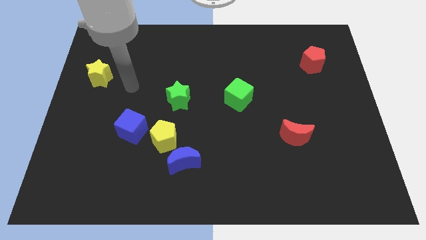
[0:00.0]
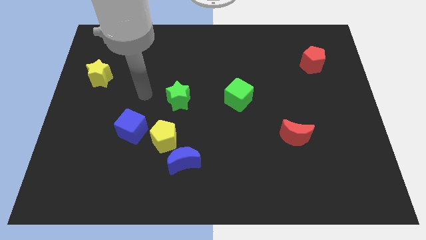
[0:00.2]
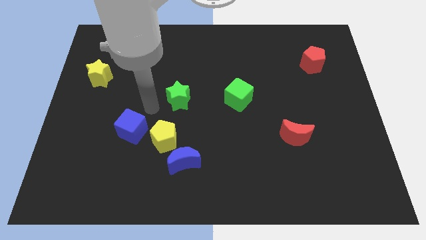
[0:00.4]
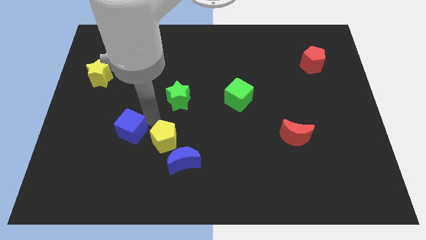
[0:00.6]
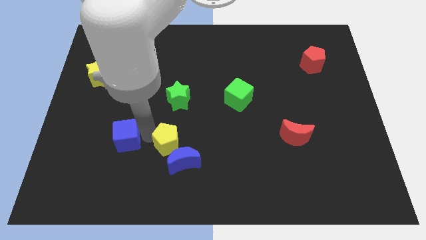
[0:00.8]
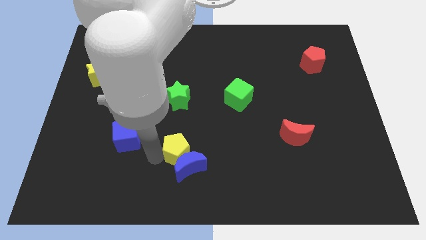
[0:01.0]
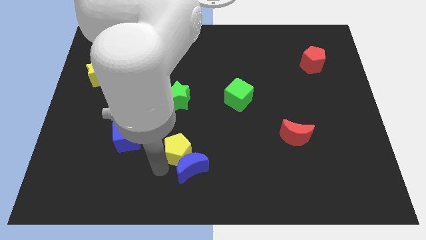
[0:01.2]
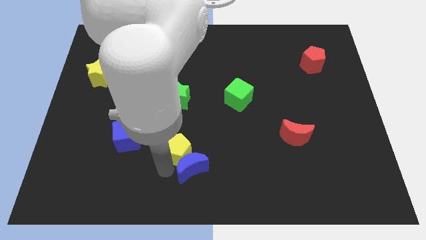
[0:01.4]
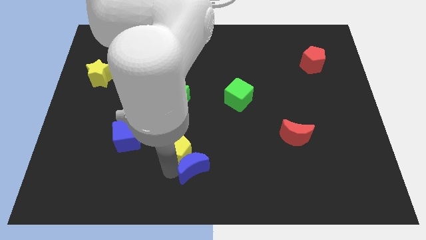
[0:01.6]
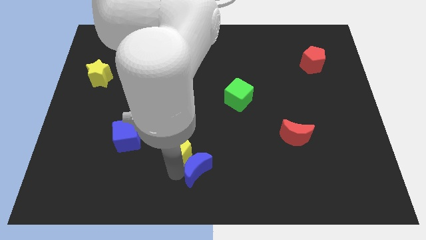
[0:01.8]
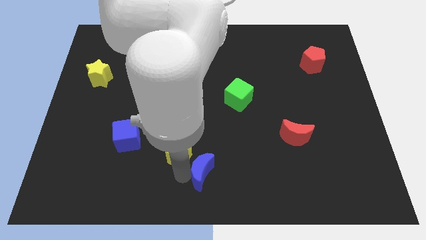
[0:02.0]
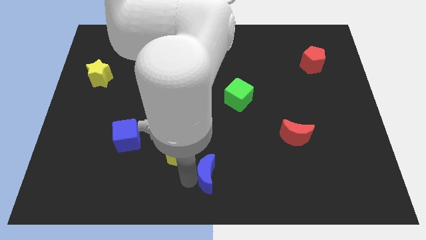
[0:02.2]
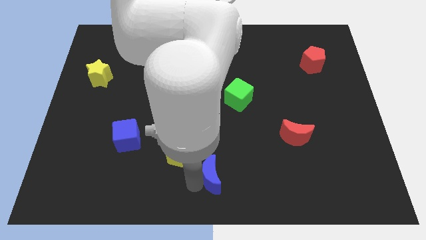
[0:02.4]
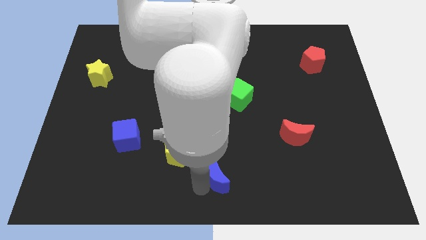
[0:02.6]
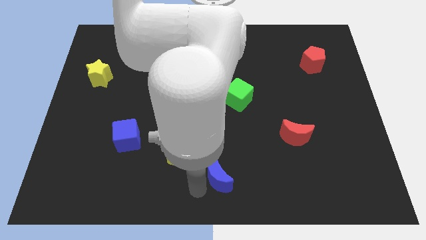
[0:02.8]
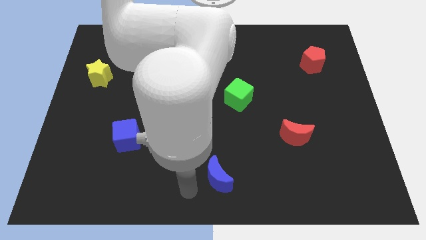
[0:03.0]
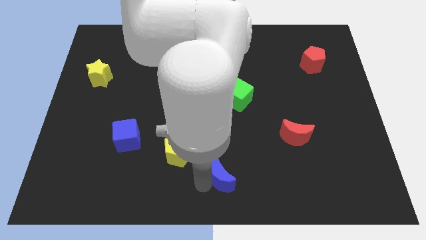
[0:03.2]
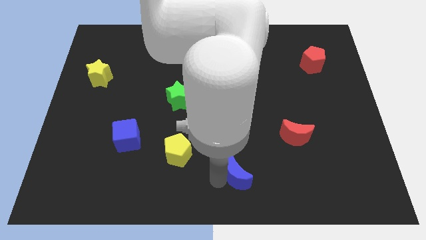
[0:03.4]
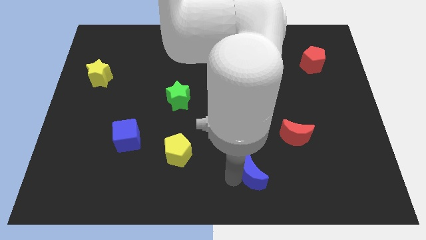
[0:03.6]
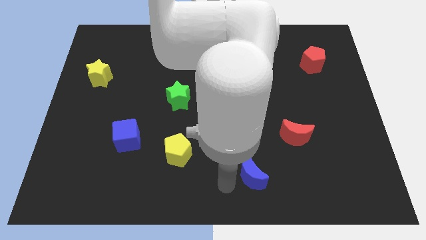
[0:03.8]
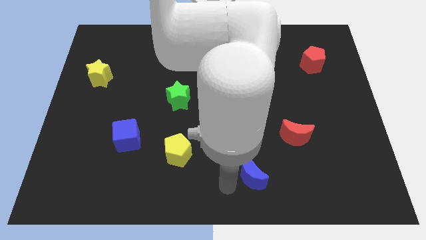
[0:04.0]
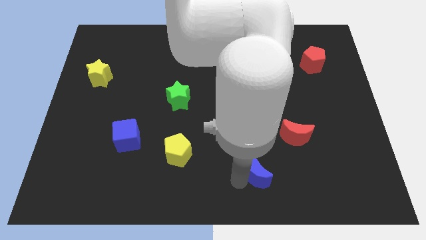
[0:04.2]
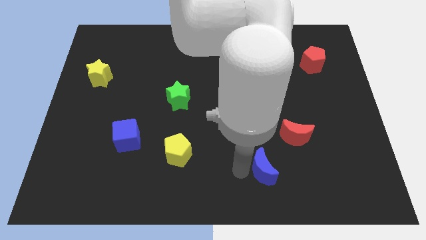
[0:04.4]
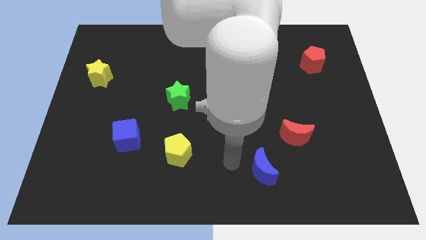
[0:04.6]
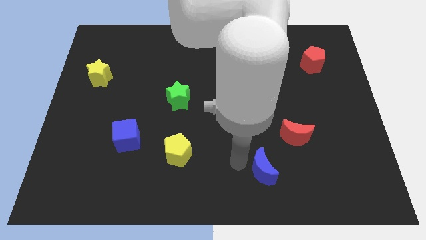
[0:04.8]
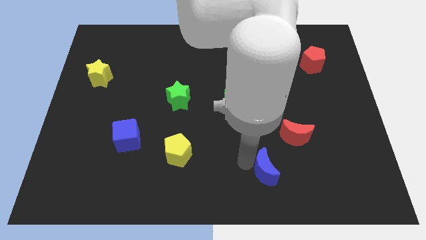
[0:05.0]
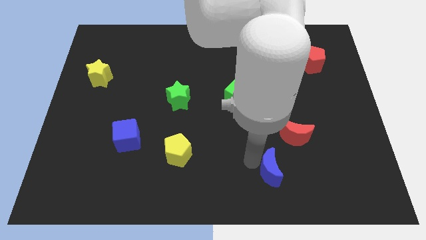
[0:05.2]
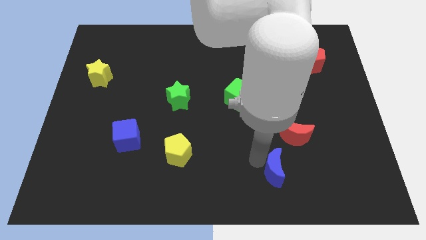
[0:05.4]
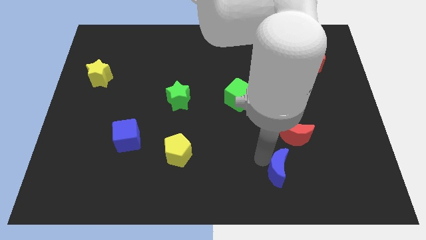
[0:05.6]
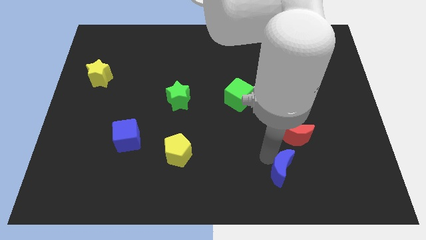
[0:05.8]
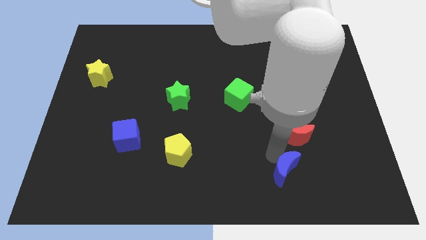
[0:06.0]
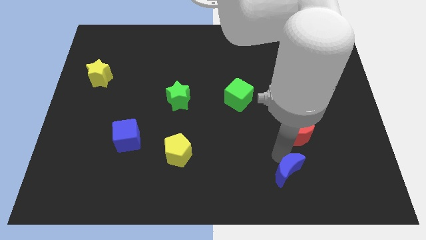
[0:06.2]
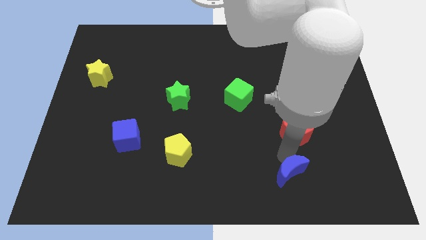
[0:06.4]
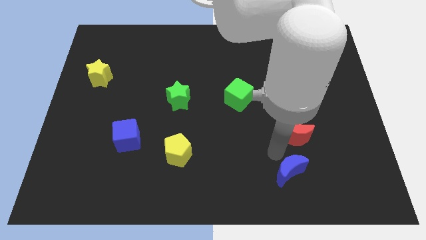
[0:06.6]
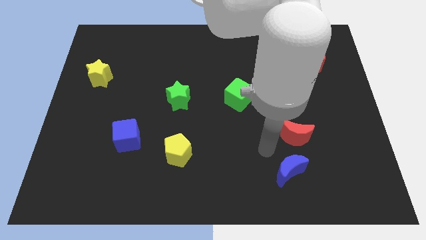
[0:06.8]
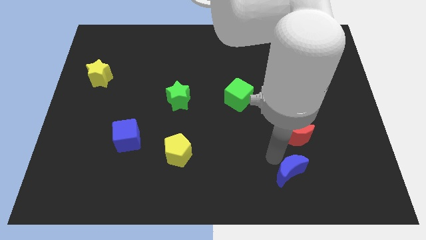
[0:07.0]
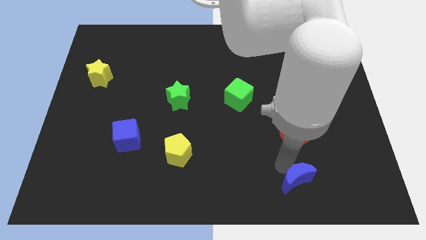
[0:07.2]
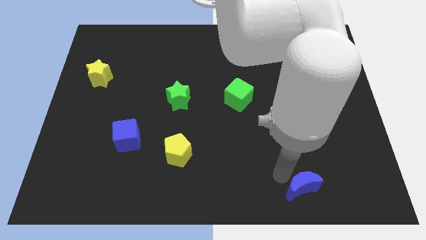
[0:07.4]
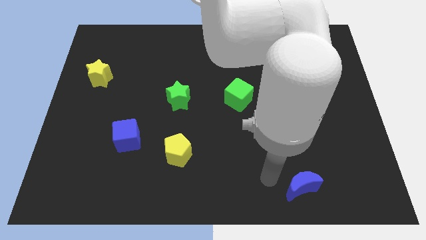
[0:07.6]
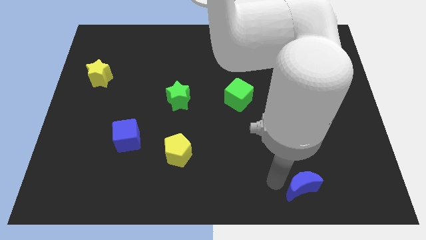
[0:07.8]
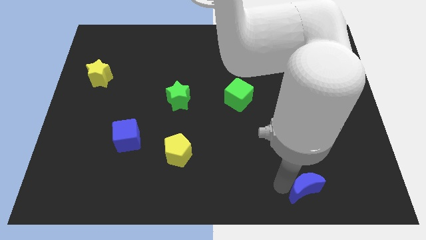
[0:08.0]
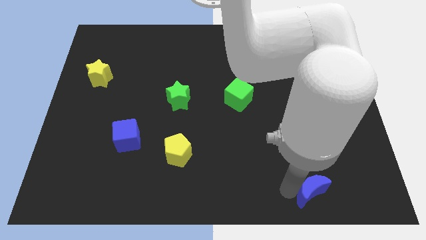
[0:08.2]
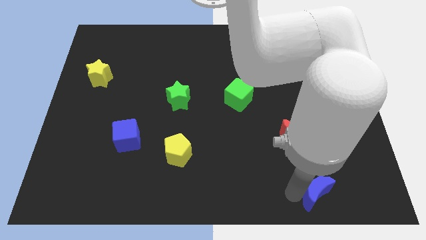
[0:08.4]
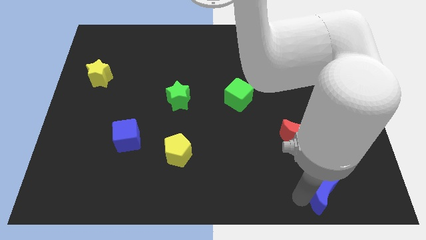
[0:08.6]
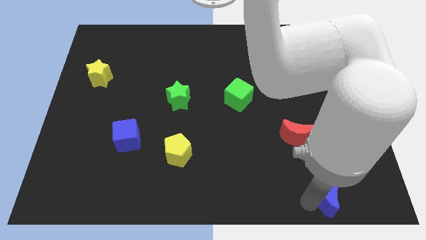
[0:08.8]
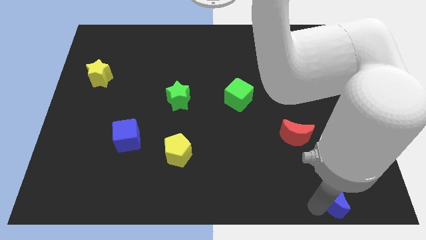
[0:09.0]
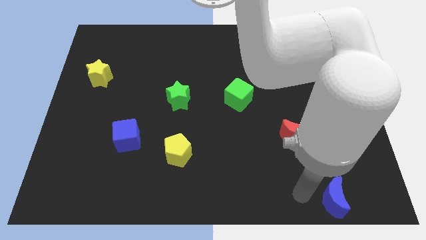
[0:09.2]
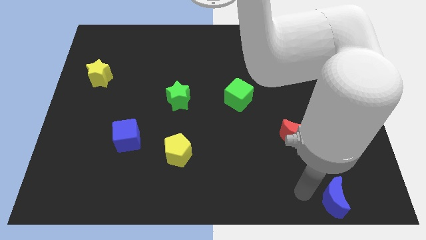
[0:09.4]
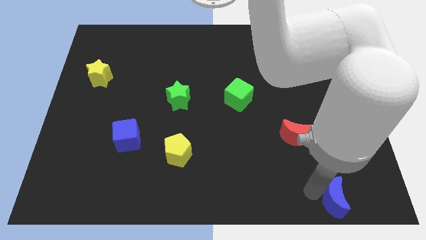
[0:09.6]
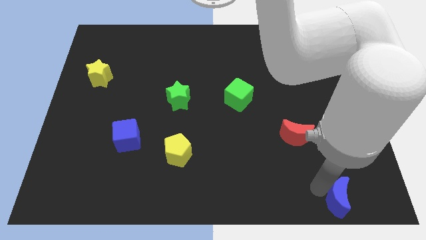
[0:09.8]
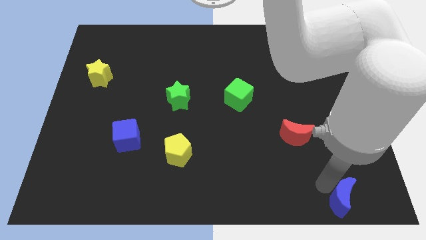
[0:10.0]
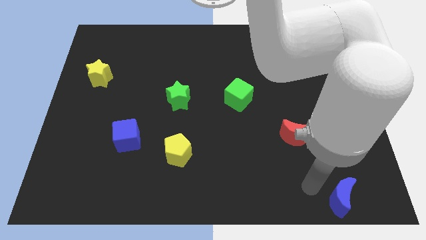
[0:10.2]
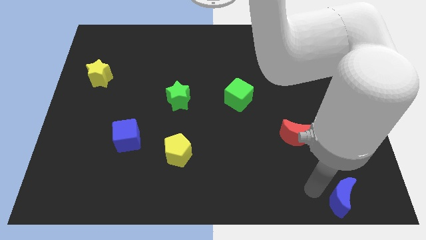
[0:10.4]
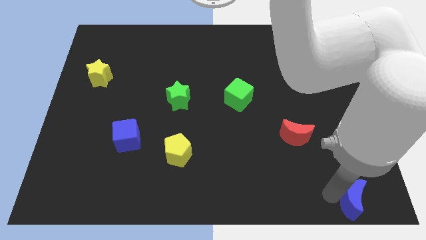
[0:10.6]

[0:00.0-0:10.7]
move the blue moon to the bottom right corner

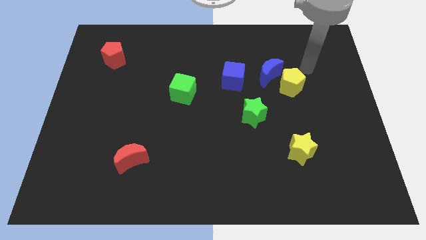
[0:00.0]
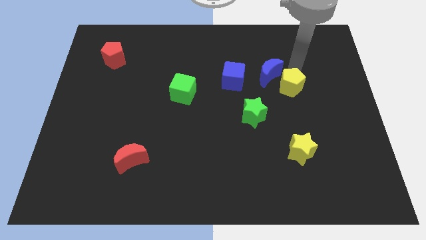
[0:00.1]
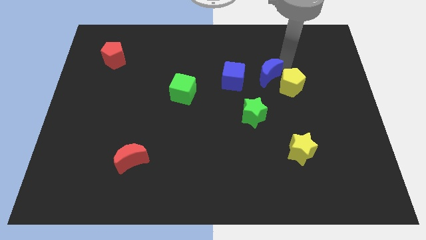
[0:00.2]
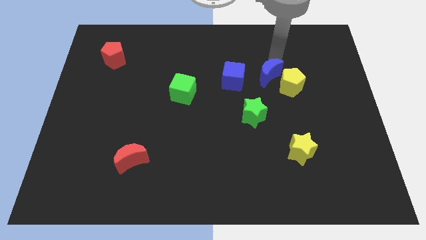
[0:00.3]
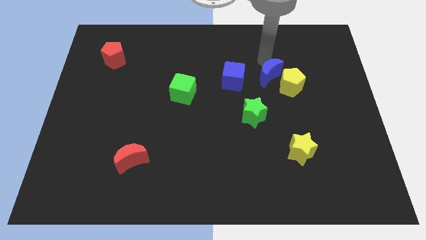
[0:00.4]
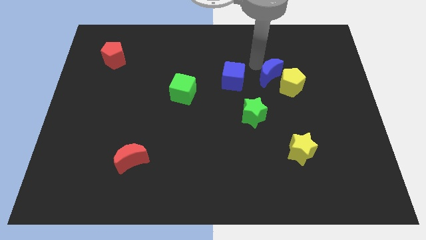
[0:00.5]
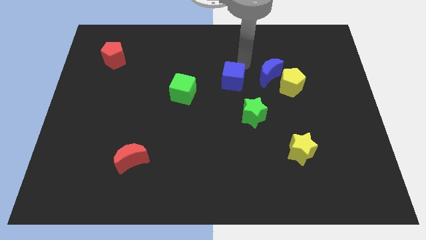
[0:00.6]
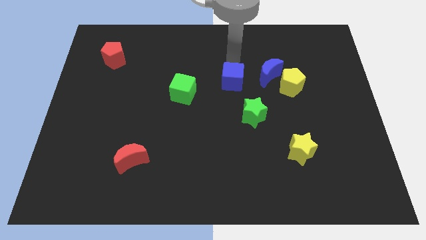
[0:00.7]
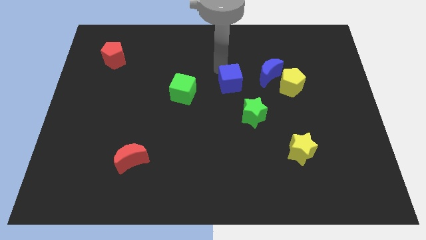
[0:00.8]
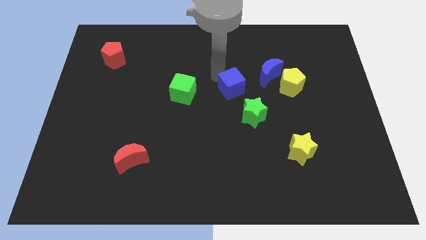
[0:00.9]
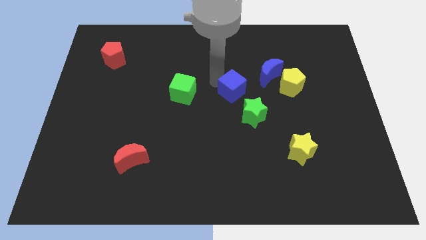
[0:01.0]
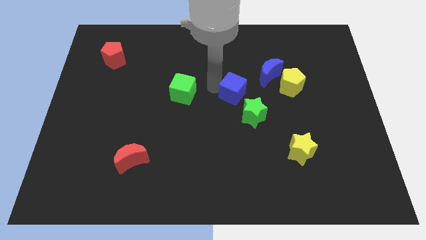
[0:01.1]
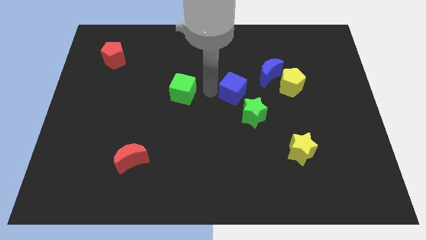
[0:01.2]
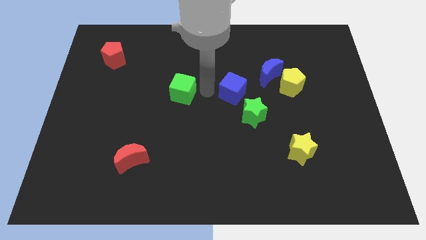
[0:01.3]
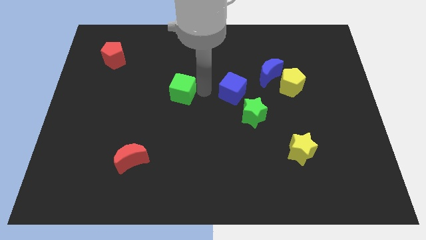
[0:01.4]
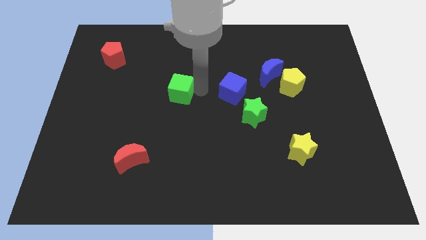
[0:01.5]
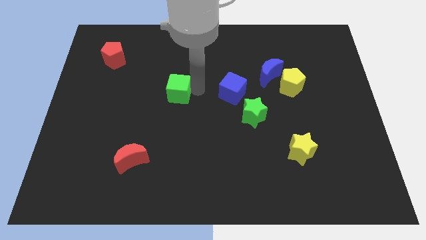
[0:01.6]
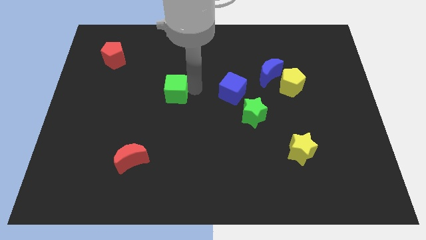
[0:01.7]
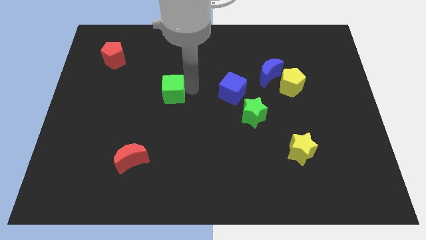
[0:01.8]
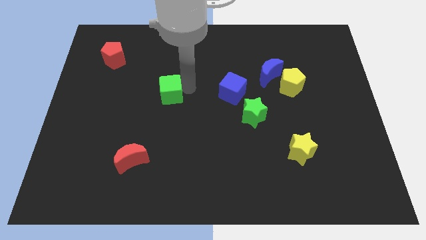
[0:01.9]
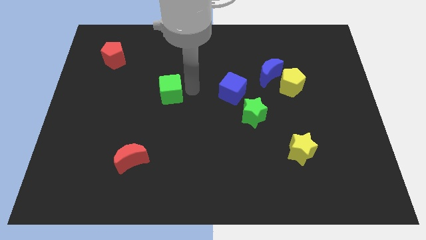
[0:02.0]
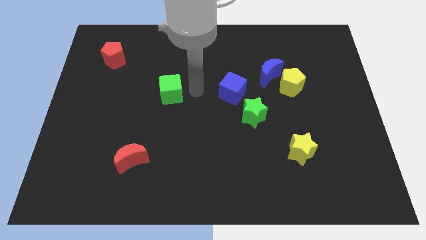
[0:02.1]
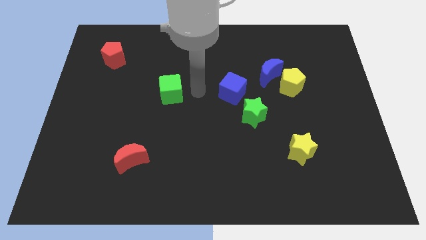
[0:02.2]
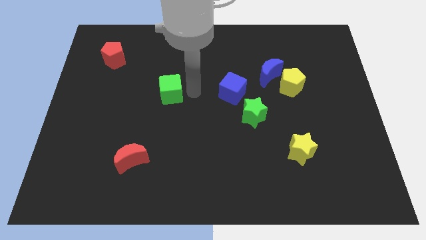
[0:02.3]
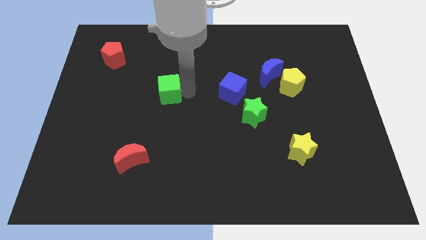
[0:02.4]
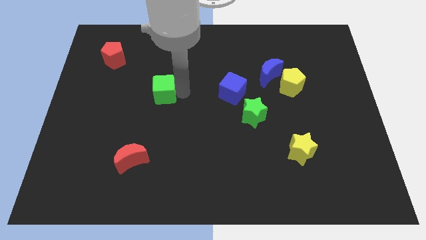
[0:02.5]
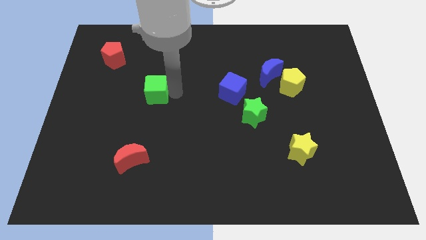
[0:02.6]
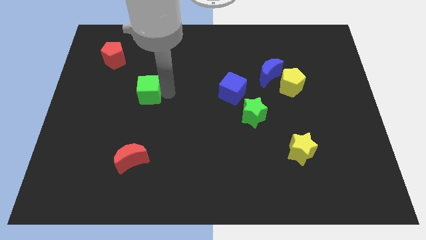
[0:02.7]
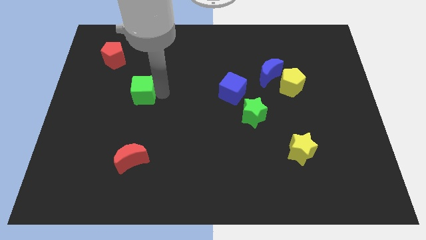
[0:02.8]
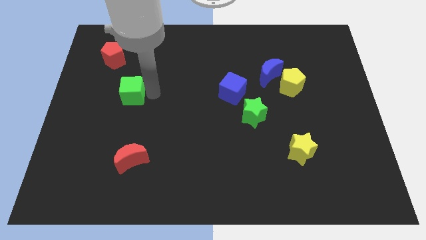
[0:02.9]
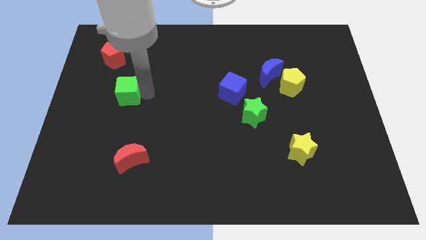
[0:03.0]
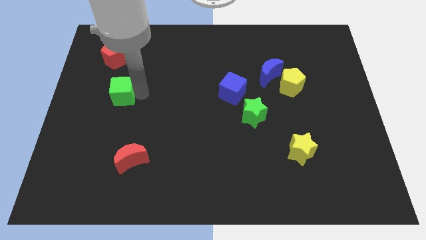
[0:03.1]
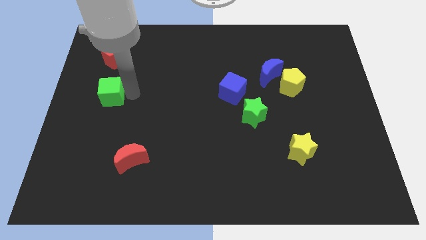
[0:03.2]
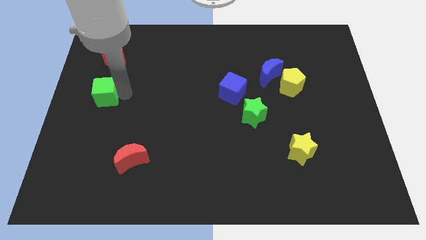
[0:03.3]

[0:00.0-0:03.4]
push the green cube to the left side
